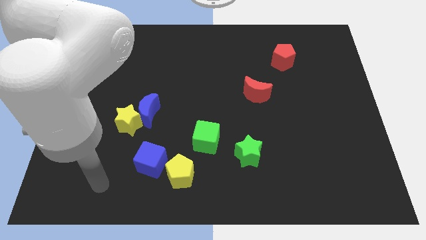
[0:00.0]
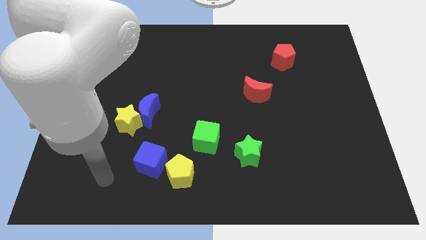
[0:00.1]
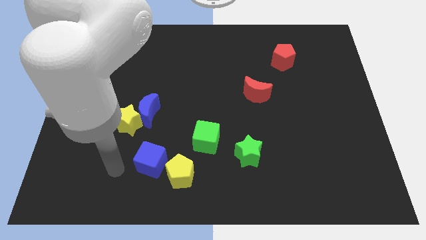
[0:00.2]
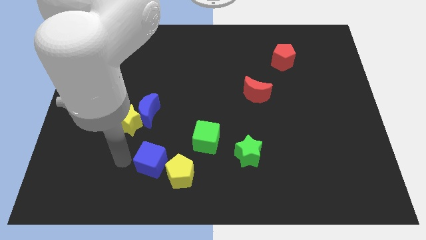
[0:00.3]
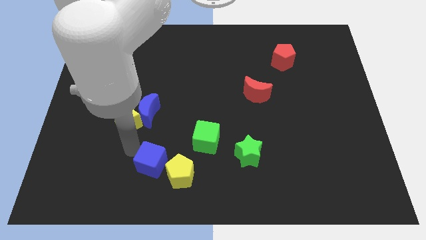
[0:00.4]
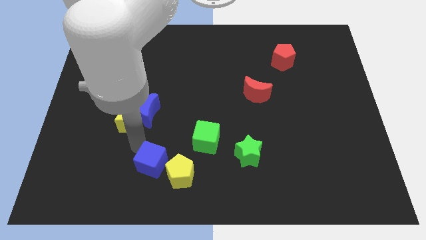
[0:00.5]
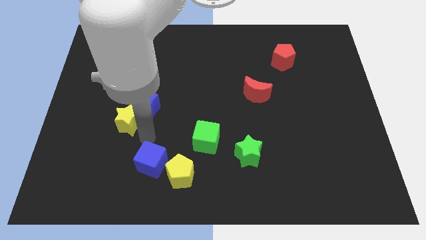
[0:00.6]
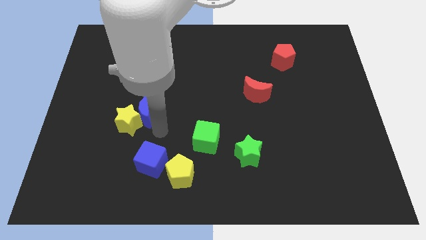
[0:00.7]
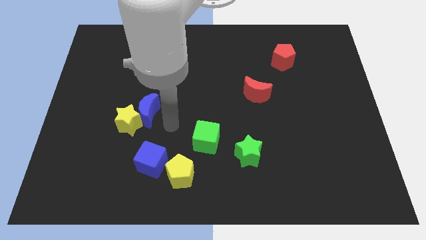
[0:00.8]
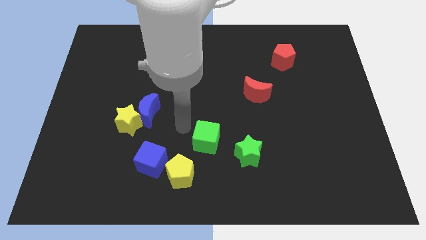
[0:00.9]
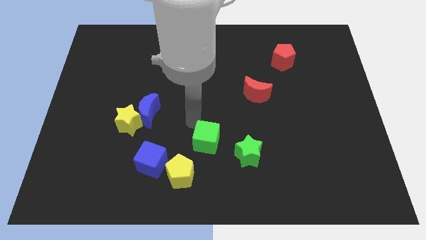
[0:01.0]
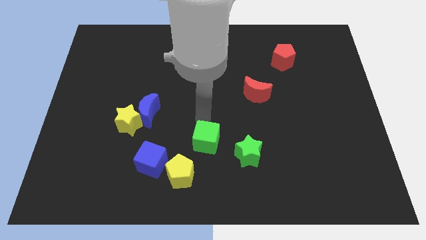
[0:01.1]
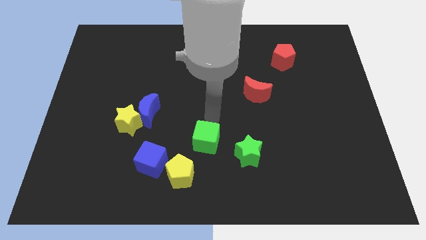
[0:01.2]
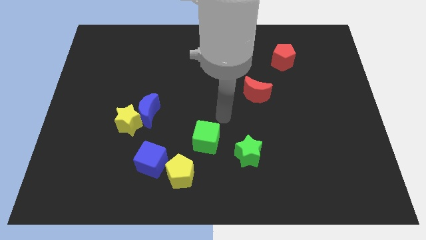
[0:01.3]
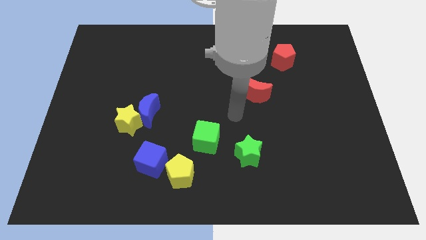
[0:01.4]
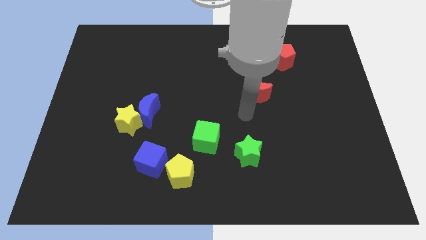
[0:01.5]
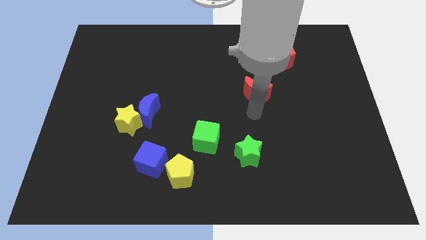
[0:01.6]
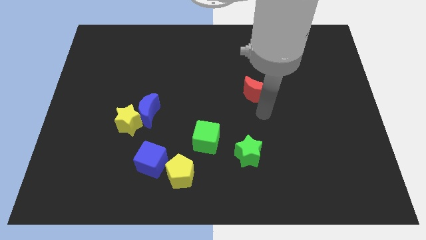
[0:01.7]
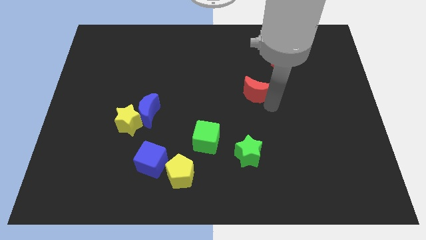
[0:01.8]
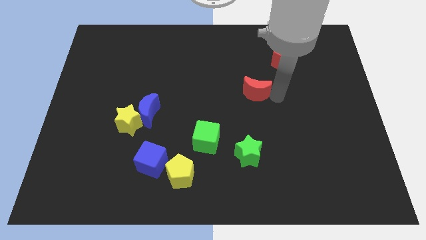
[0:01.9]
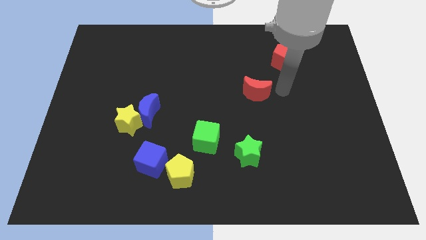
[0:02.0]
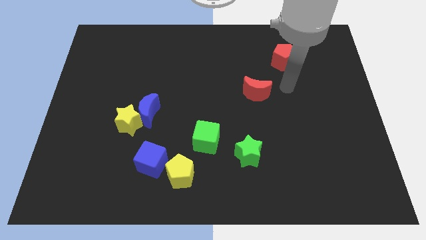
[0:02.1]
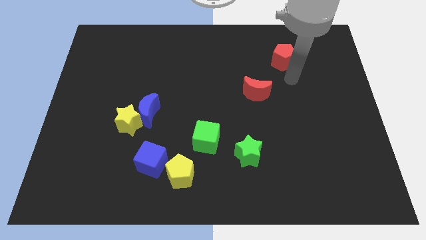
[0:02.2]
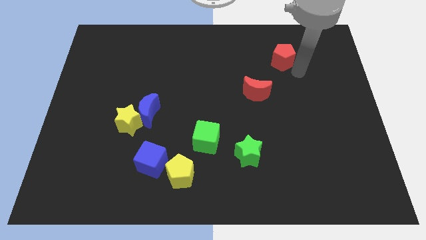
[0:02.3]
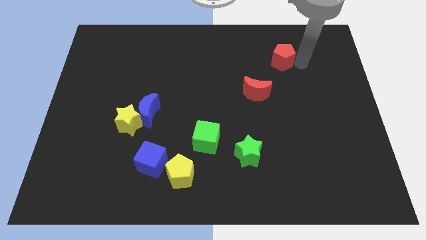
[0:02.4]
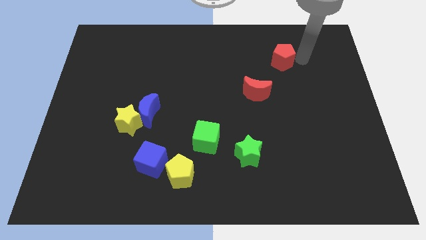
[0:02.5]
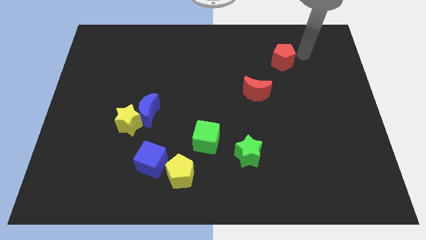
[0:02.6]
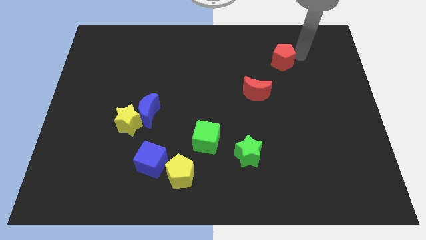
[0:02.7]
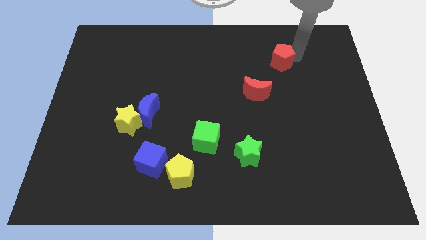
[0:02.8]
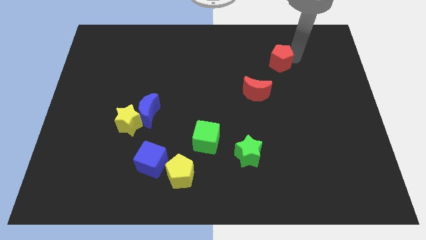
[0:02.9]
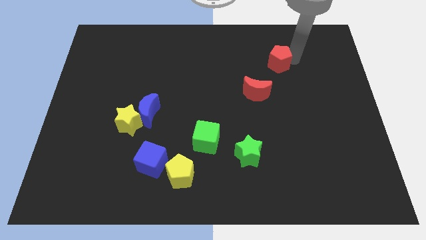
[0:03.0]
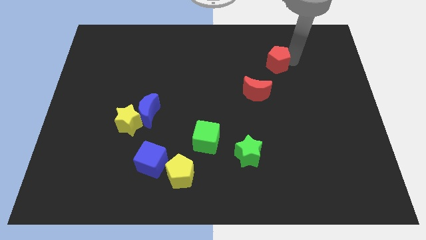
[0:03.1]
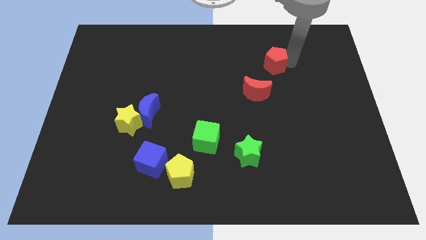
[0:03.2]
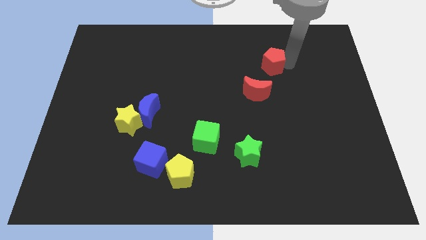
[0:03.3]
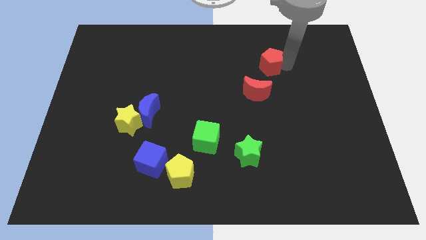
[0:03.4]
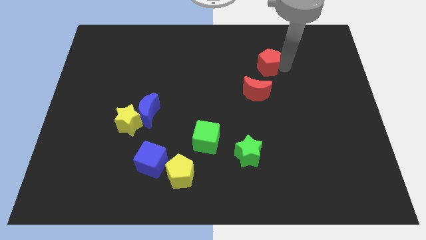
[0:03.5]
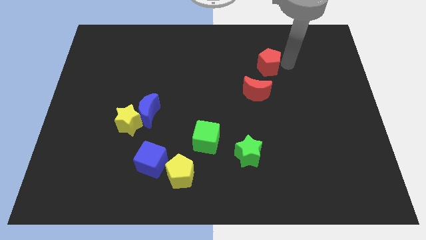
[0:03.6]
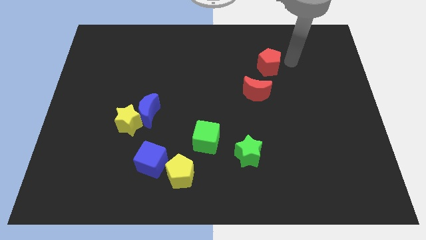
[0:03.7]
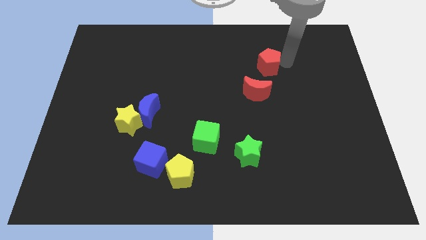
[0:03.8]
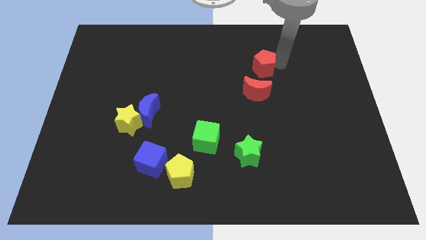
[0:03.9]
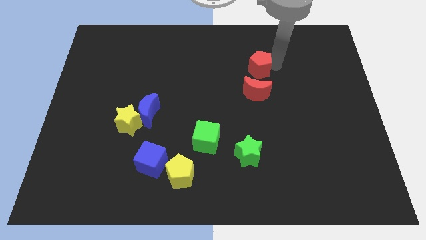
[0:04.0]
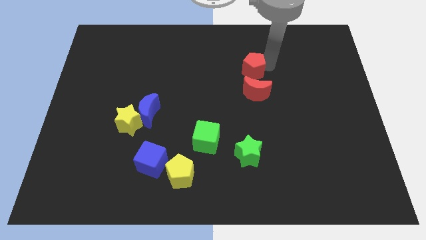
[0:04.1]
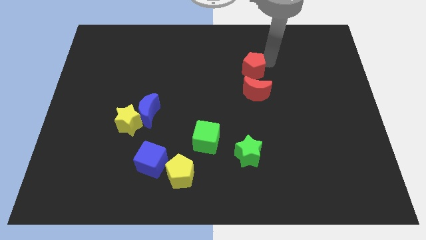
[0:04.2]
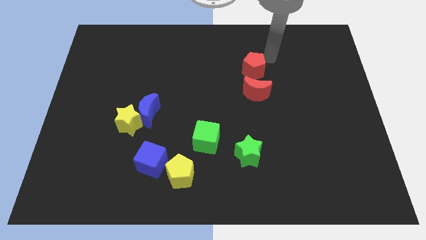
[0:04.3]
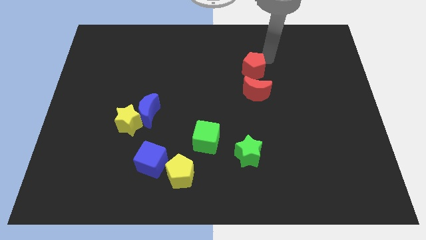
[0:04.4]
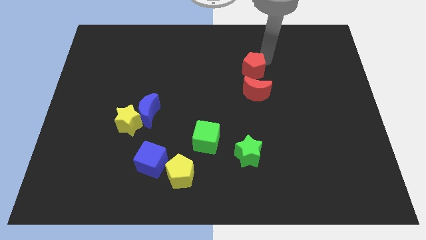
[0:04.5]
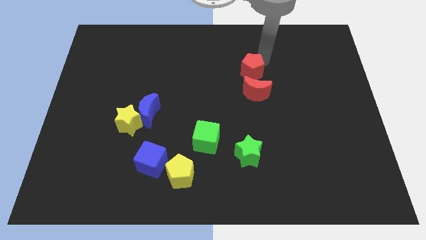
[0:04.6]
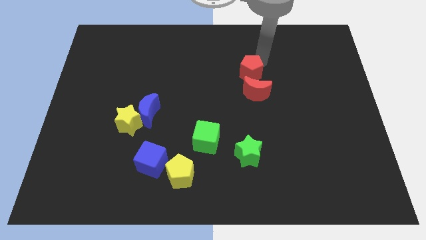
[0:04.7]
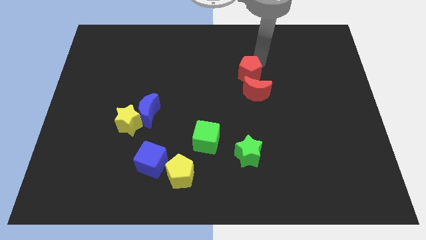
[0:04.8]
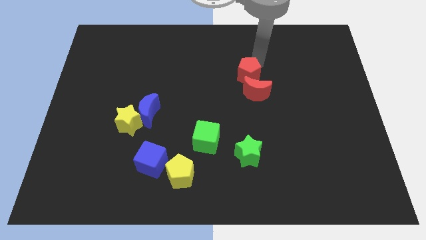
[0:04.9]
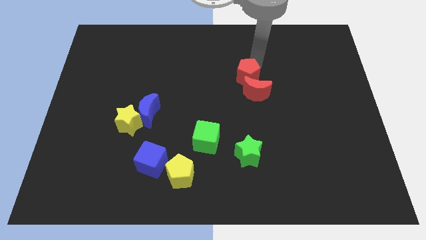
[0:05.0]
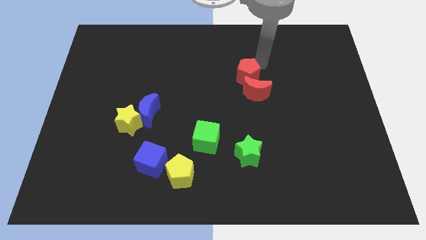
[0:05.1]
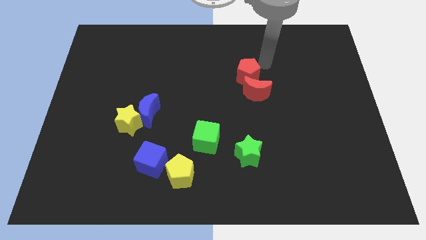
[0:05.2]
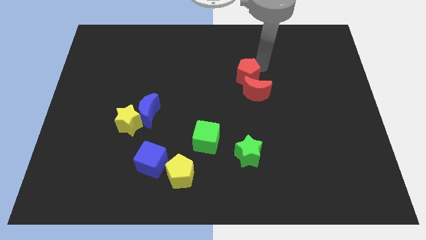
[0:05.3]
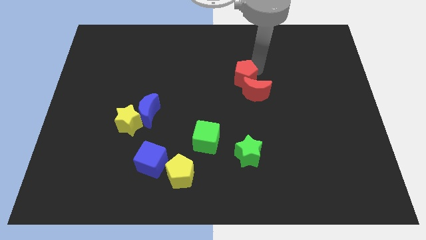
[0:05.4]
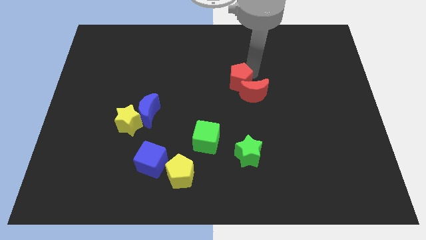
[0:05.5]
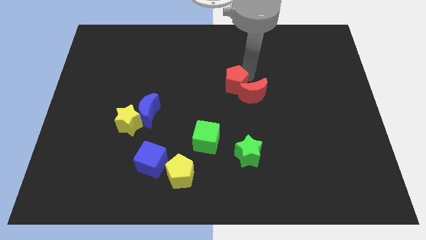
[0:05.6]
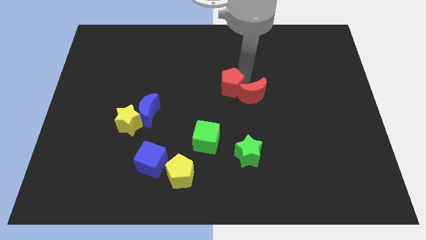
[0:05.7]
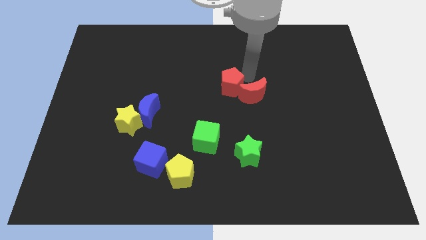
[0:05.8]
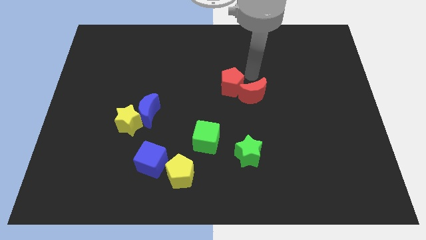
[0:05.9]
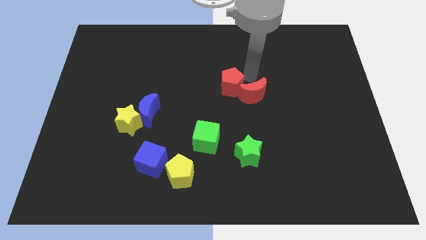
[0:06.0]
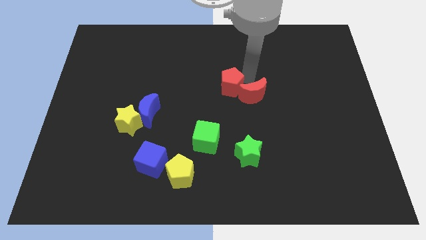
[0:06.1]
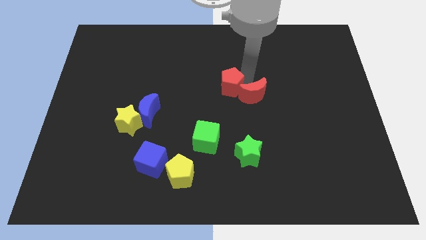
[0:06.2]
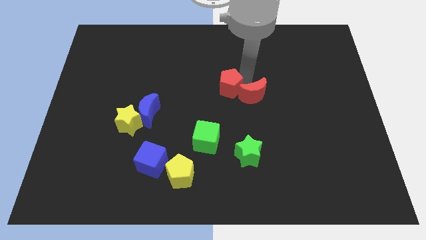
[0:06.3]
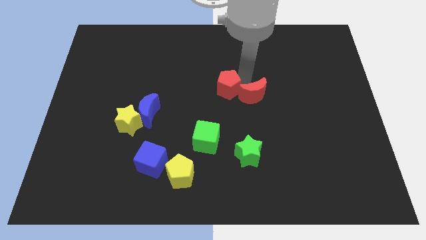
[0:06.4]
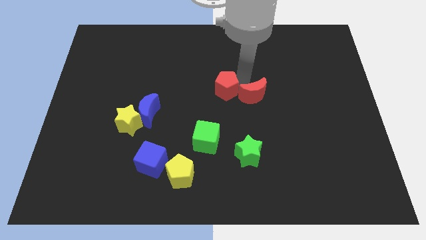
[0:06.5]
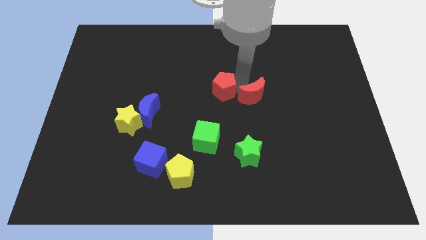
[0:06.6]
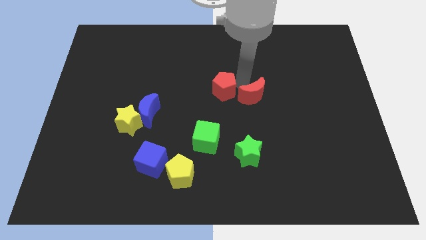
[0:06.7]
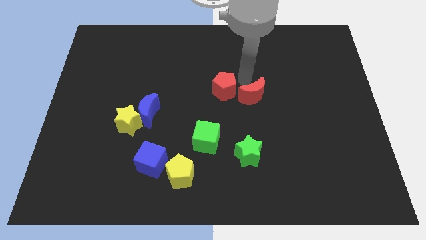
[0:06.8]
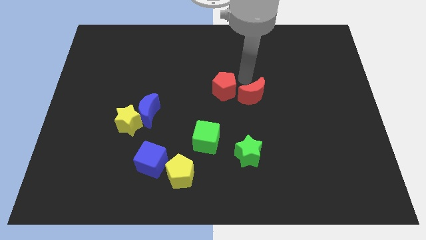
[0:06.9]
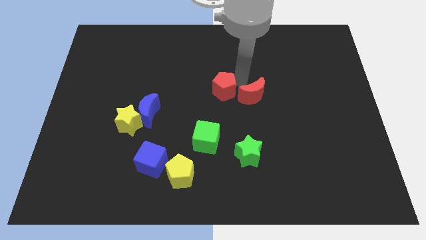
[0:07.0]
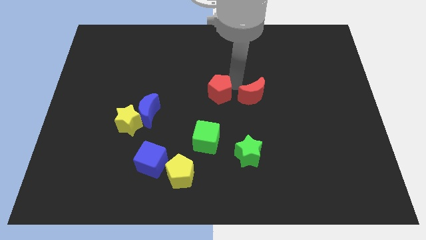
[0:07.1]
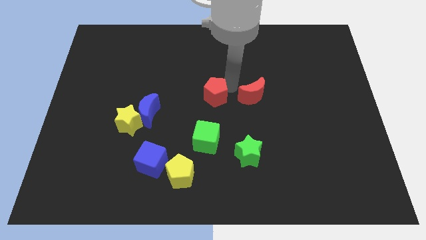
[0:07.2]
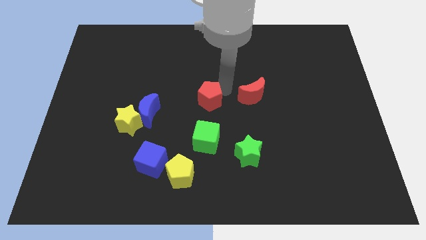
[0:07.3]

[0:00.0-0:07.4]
move the red pentagon right of the blue moon
